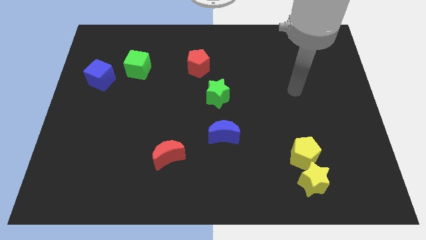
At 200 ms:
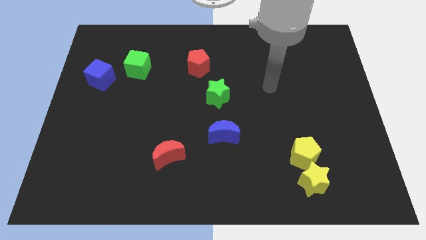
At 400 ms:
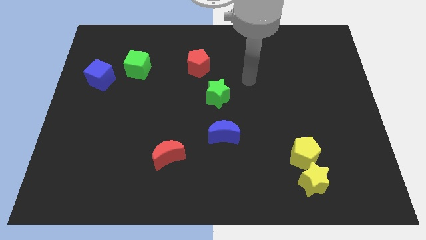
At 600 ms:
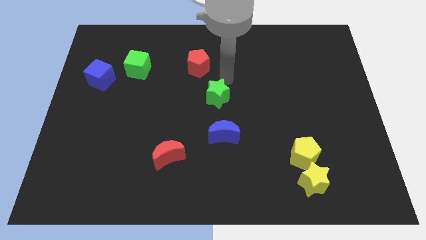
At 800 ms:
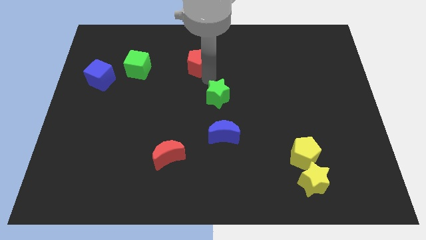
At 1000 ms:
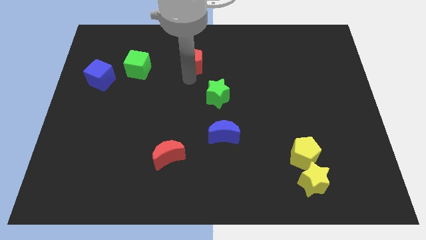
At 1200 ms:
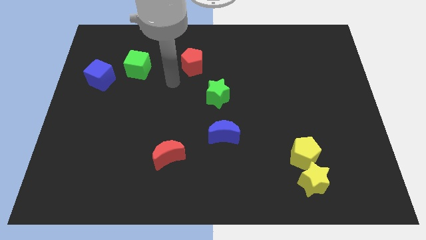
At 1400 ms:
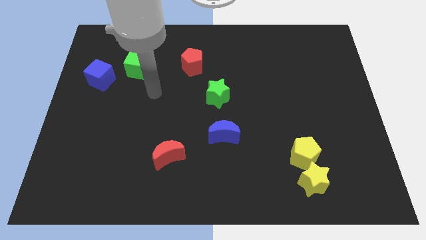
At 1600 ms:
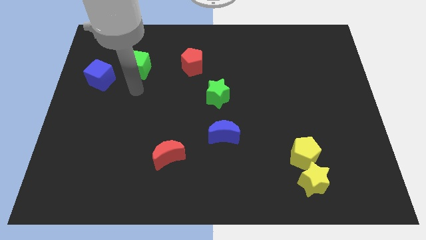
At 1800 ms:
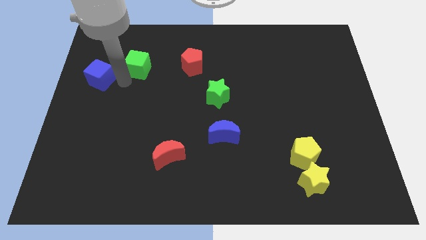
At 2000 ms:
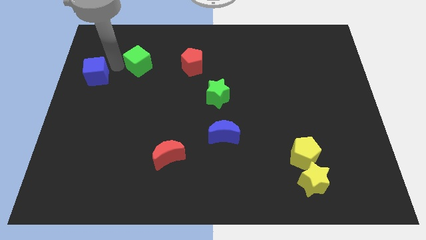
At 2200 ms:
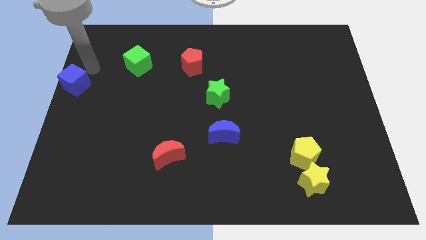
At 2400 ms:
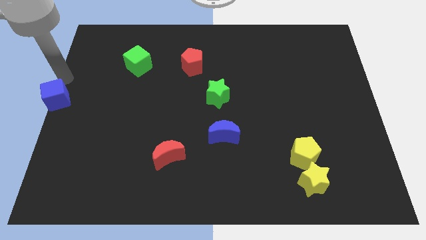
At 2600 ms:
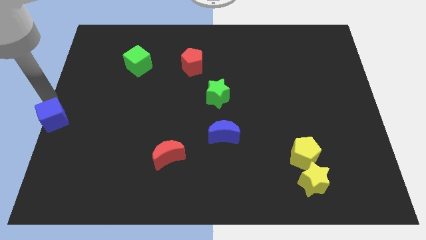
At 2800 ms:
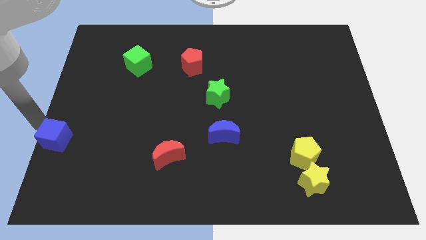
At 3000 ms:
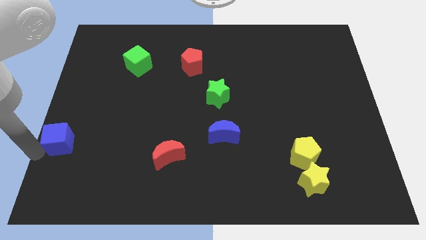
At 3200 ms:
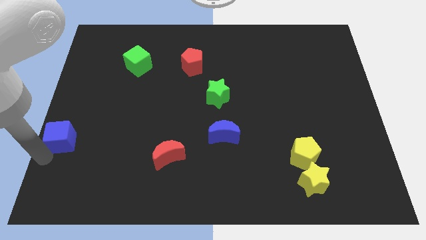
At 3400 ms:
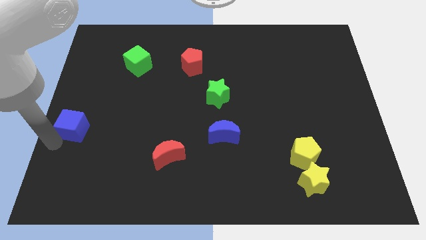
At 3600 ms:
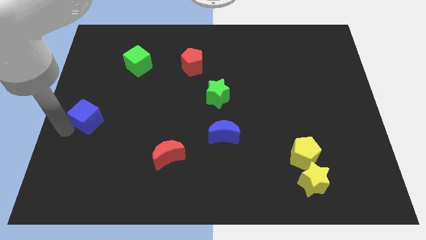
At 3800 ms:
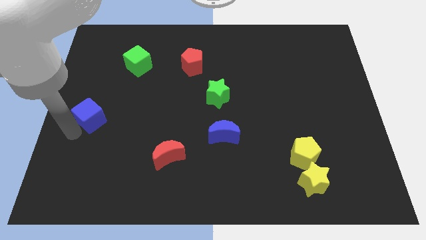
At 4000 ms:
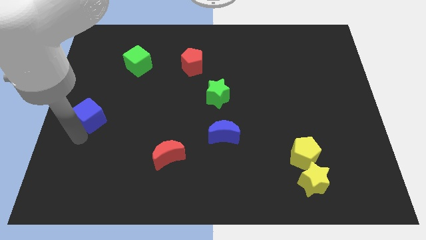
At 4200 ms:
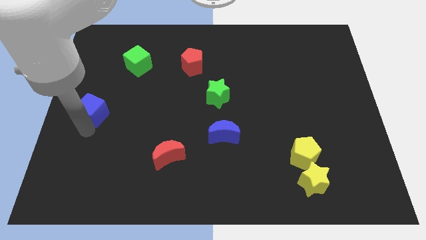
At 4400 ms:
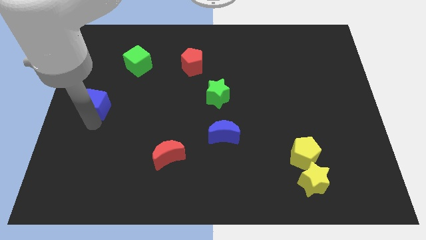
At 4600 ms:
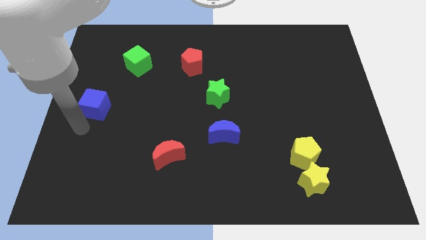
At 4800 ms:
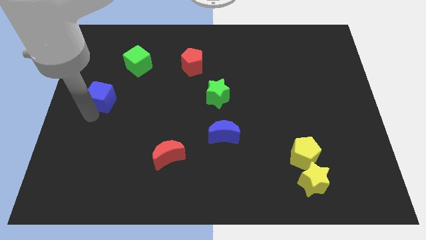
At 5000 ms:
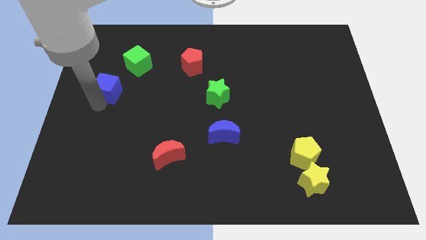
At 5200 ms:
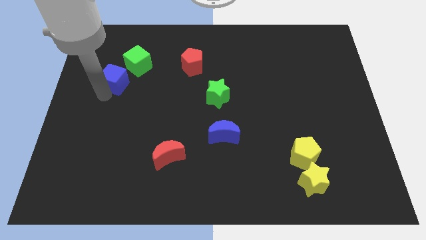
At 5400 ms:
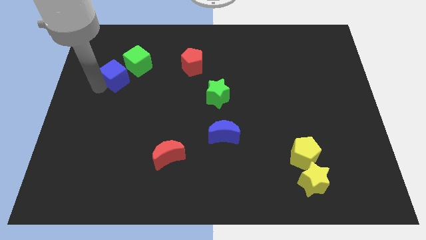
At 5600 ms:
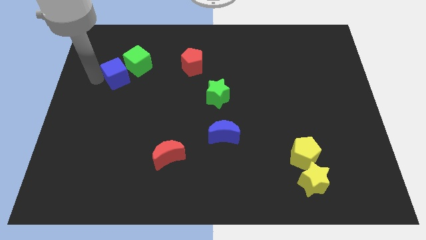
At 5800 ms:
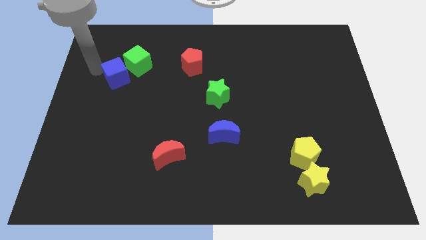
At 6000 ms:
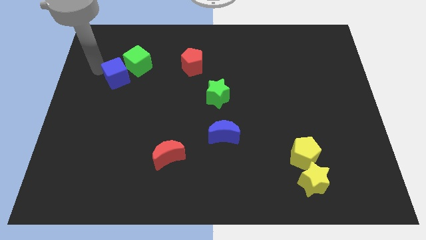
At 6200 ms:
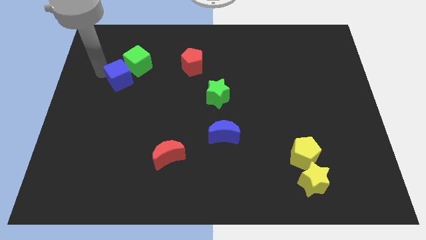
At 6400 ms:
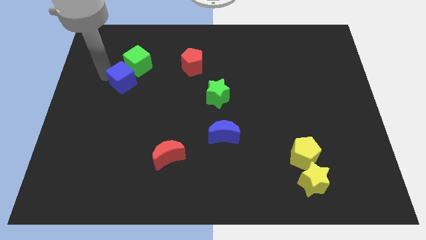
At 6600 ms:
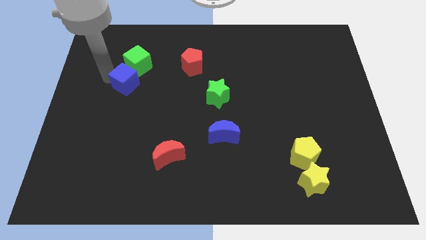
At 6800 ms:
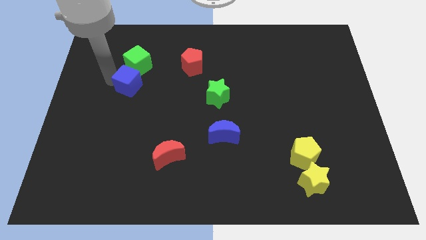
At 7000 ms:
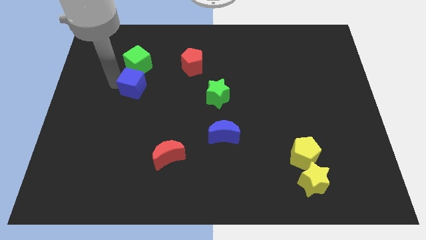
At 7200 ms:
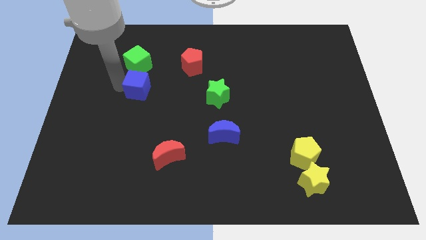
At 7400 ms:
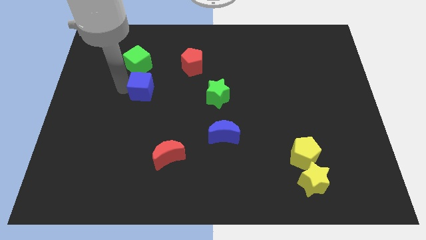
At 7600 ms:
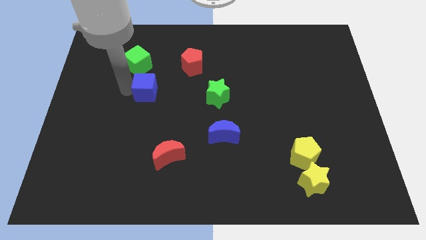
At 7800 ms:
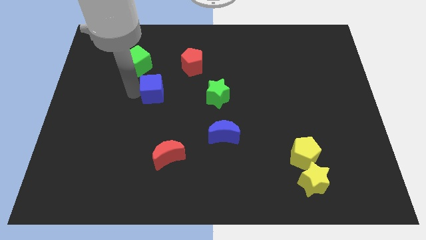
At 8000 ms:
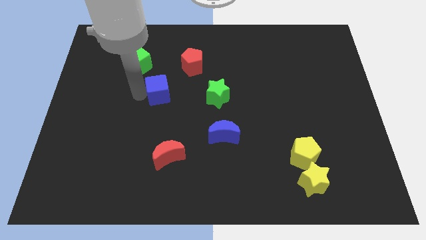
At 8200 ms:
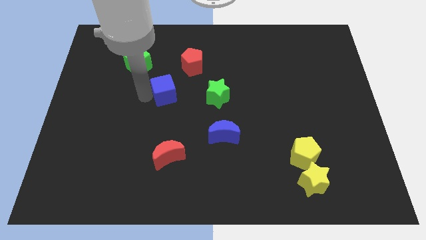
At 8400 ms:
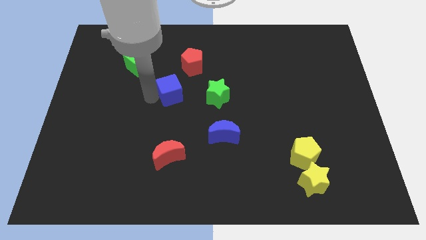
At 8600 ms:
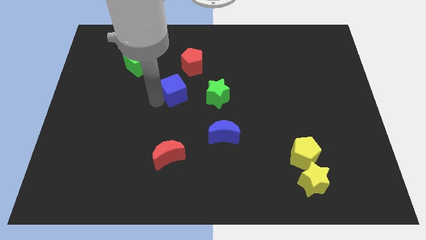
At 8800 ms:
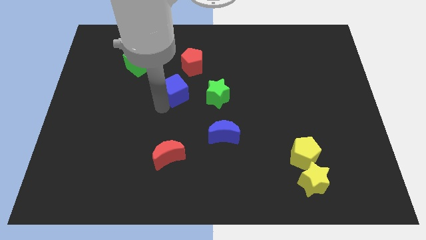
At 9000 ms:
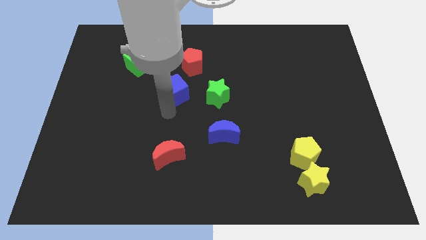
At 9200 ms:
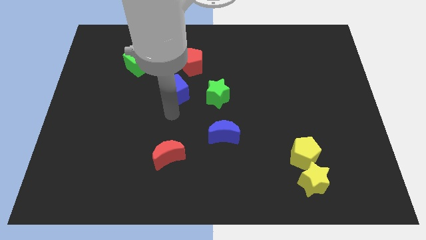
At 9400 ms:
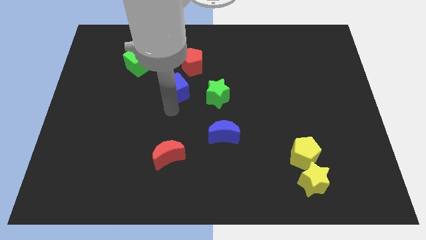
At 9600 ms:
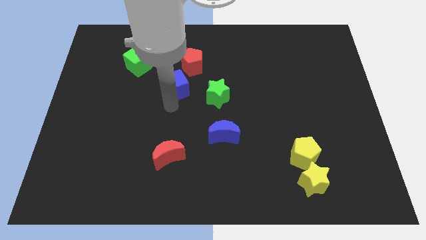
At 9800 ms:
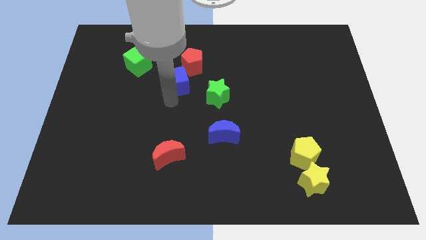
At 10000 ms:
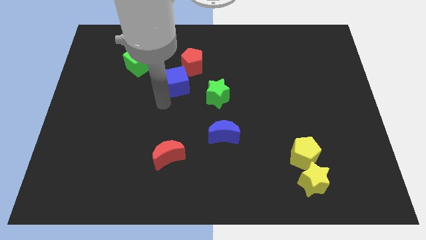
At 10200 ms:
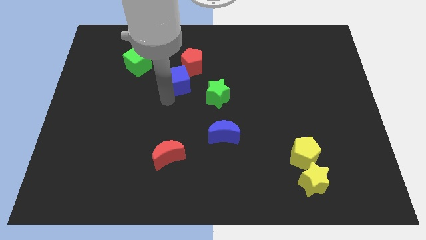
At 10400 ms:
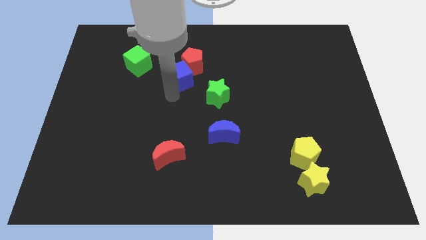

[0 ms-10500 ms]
slide the blue cube to the red pentagon

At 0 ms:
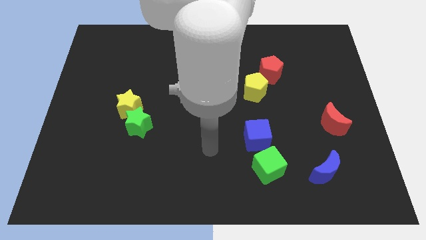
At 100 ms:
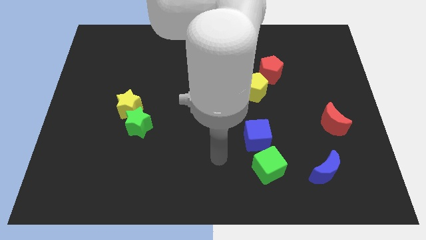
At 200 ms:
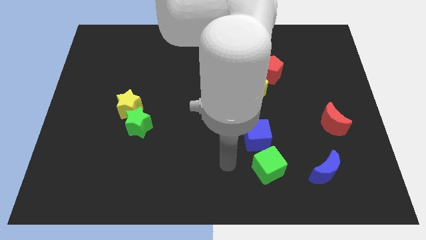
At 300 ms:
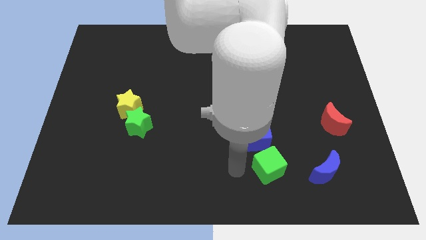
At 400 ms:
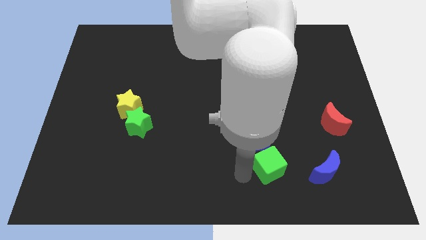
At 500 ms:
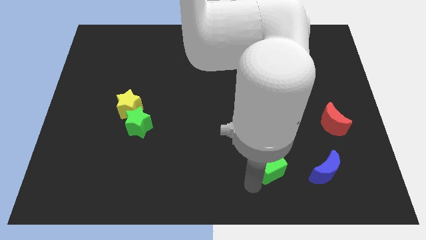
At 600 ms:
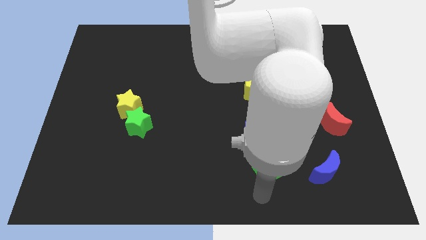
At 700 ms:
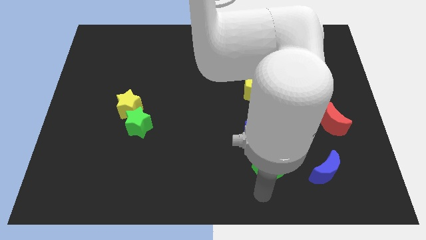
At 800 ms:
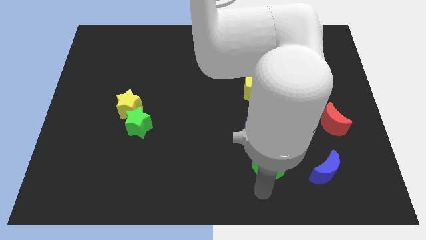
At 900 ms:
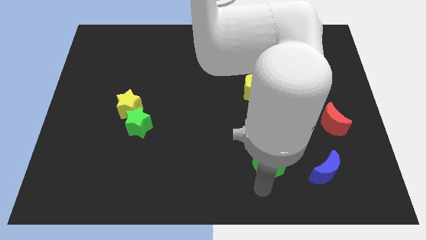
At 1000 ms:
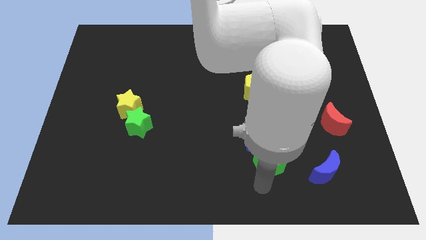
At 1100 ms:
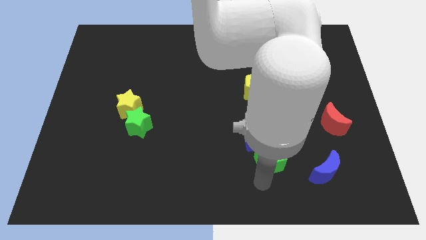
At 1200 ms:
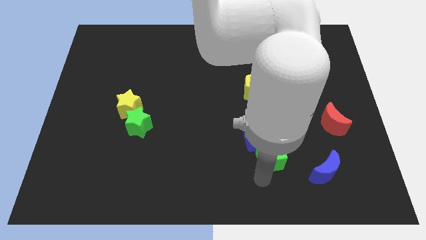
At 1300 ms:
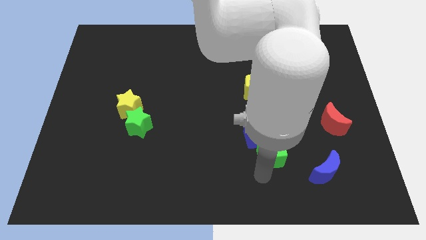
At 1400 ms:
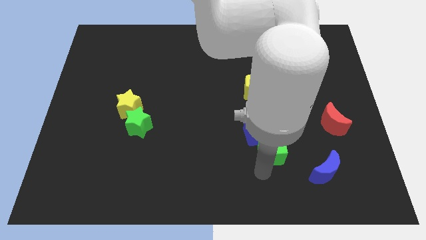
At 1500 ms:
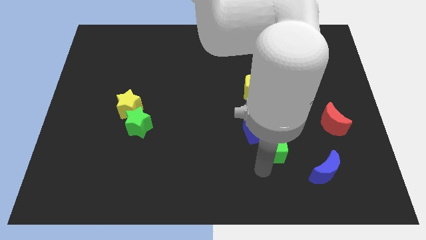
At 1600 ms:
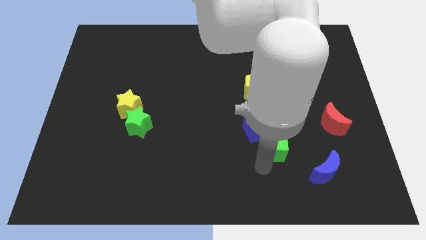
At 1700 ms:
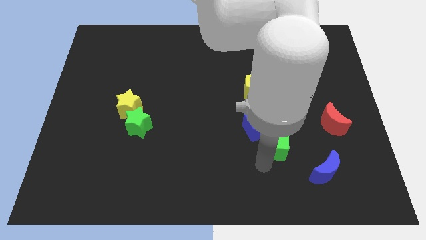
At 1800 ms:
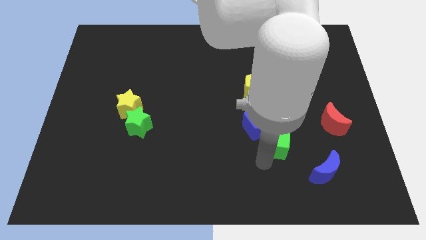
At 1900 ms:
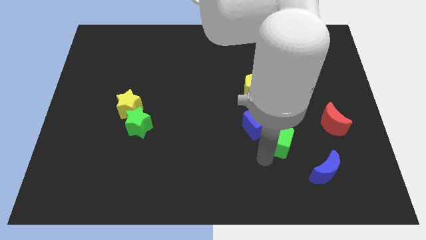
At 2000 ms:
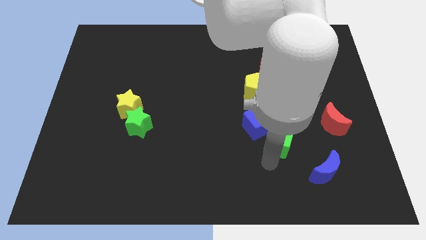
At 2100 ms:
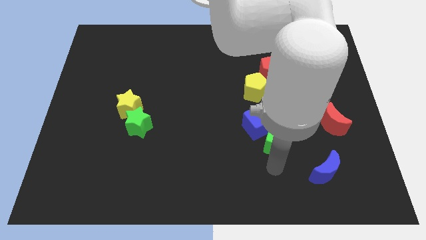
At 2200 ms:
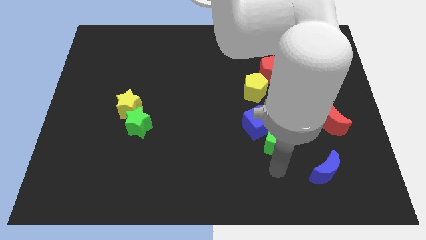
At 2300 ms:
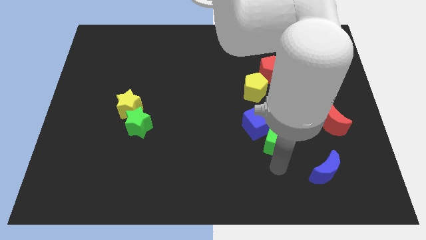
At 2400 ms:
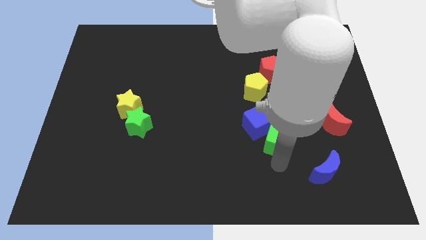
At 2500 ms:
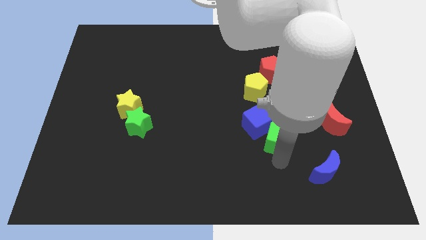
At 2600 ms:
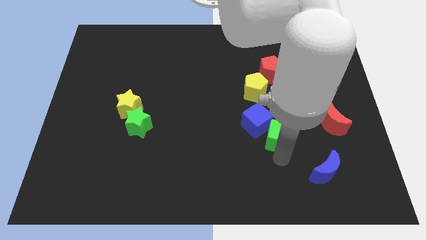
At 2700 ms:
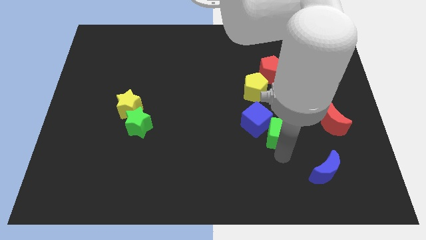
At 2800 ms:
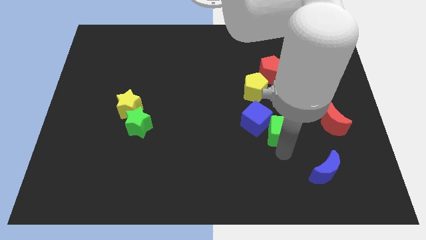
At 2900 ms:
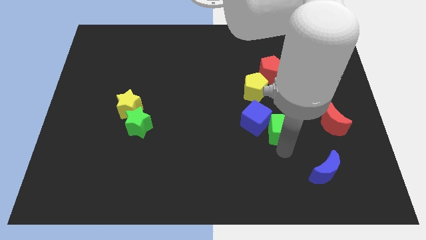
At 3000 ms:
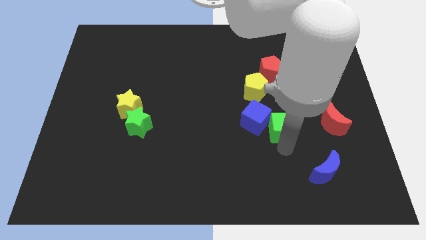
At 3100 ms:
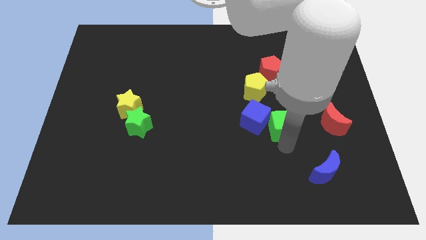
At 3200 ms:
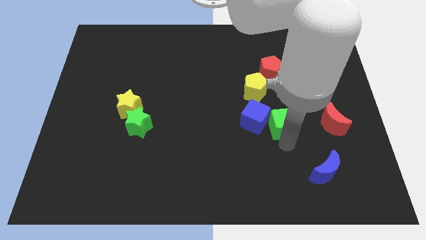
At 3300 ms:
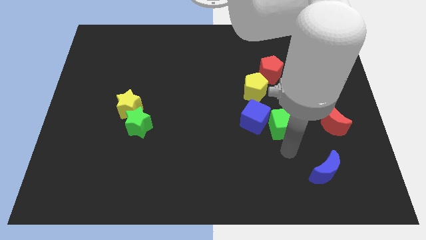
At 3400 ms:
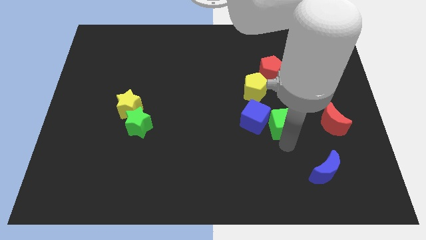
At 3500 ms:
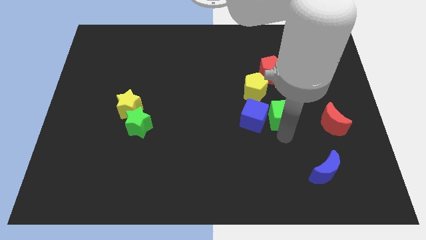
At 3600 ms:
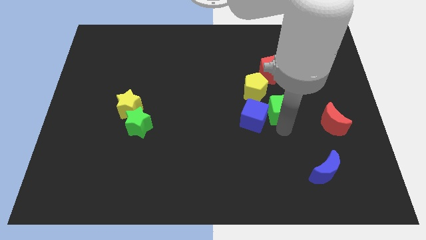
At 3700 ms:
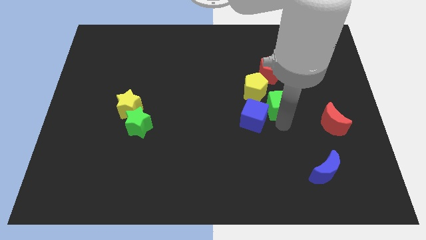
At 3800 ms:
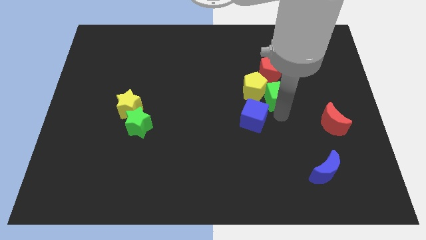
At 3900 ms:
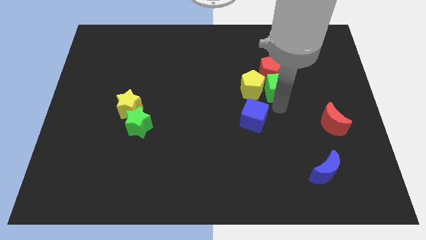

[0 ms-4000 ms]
slide the green cube close to the red pentagon
